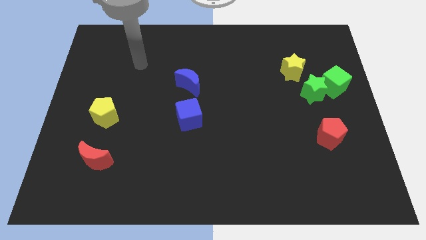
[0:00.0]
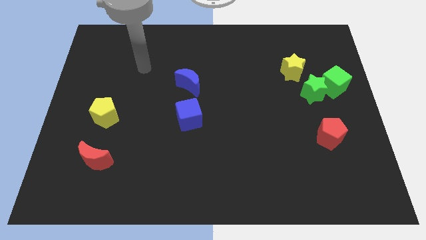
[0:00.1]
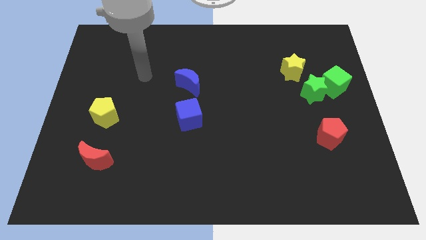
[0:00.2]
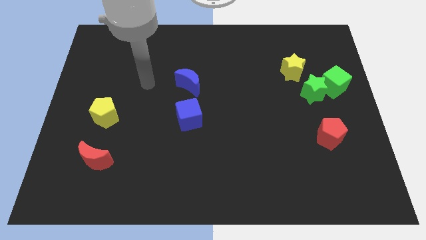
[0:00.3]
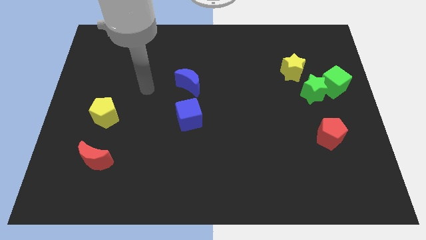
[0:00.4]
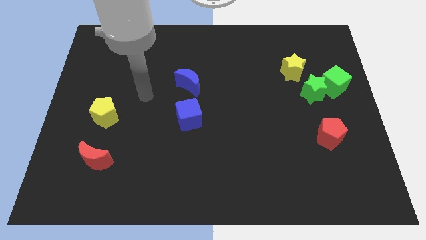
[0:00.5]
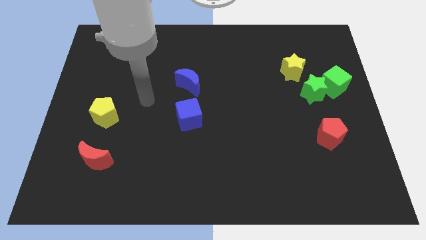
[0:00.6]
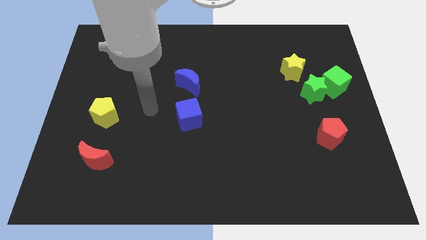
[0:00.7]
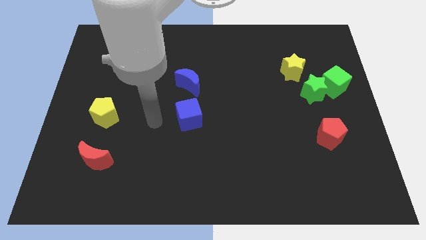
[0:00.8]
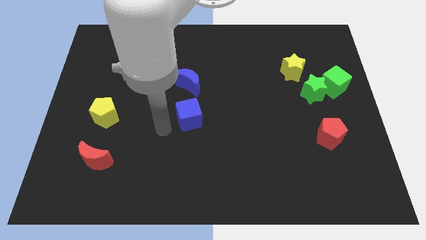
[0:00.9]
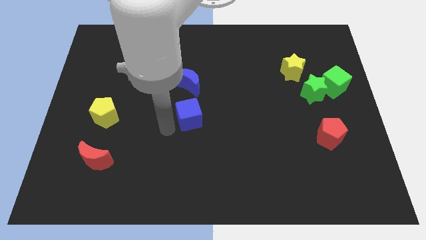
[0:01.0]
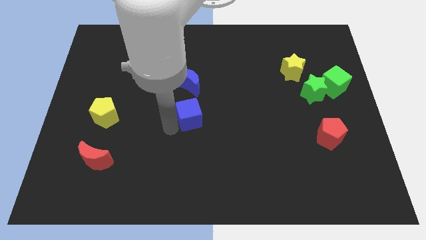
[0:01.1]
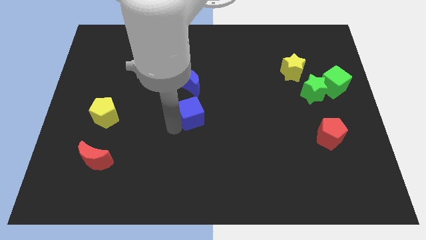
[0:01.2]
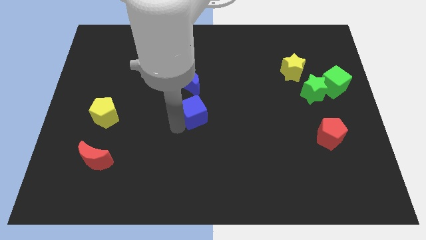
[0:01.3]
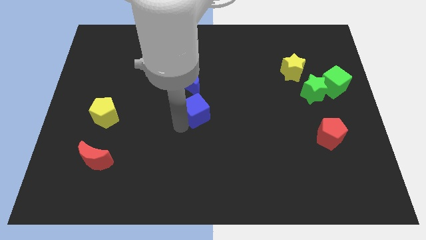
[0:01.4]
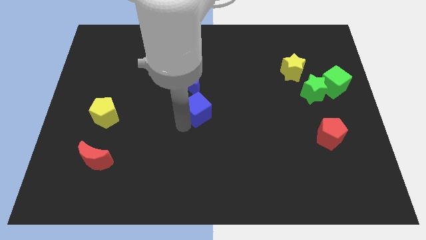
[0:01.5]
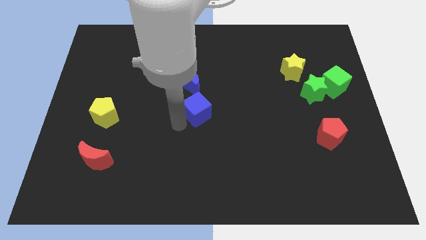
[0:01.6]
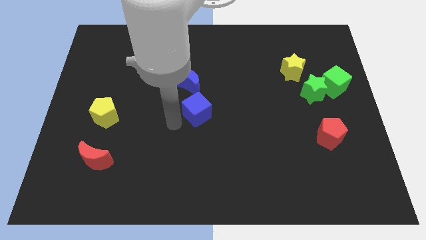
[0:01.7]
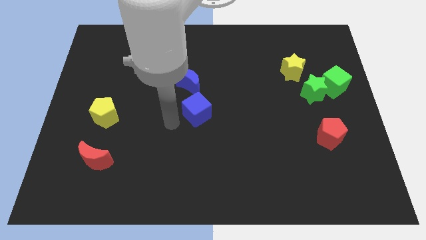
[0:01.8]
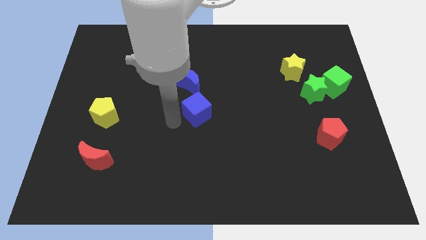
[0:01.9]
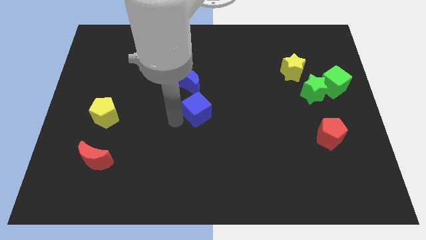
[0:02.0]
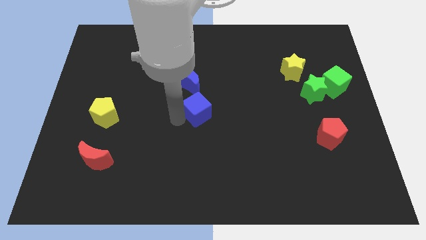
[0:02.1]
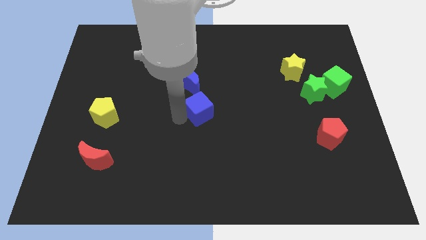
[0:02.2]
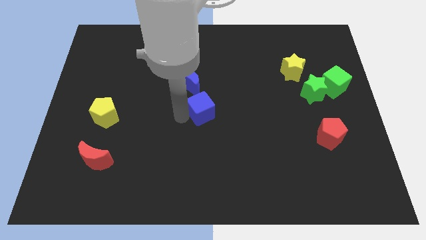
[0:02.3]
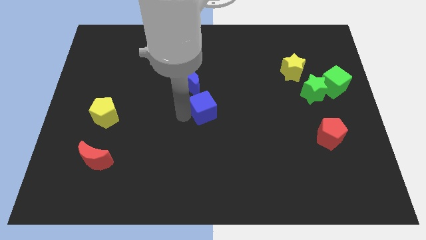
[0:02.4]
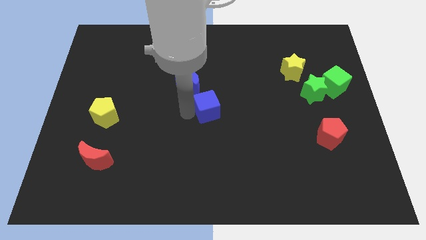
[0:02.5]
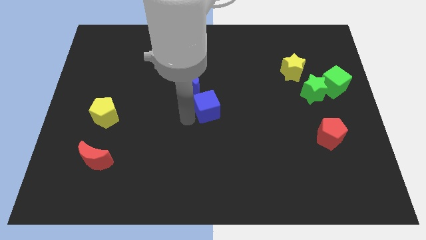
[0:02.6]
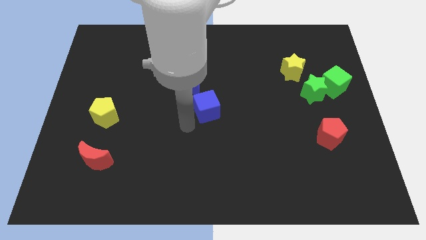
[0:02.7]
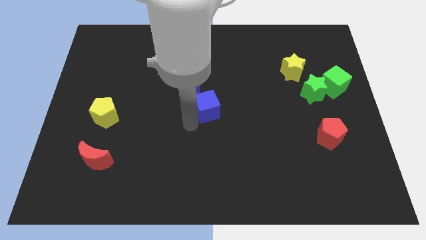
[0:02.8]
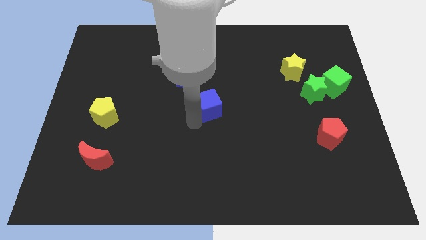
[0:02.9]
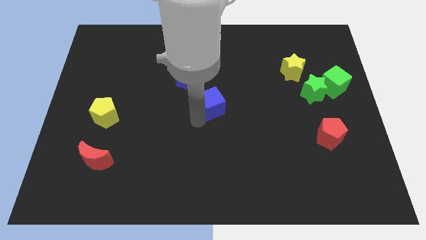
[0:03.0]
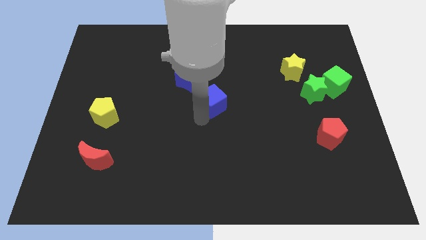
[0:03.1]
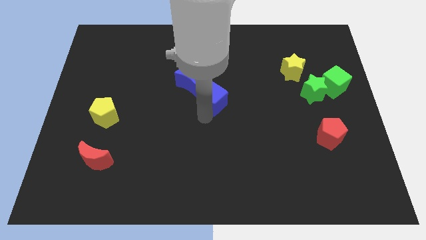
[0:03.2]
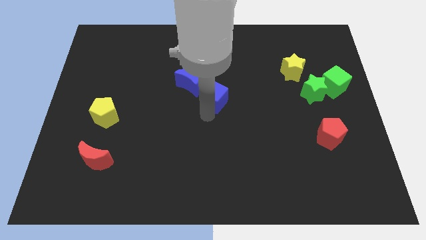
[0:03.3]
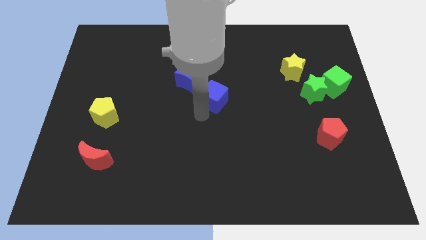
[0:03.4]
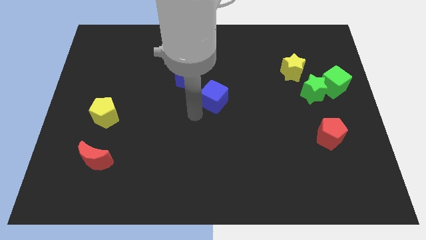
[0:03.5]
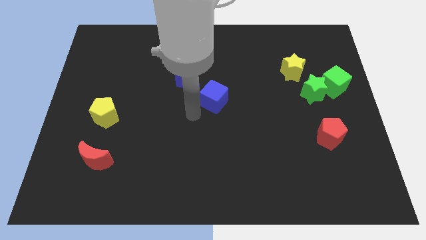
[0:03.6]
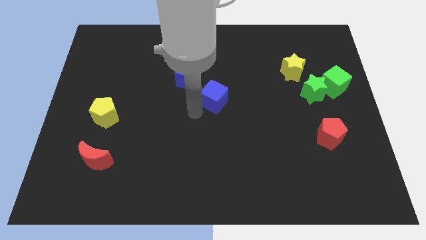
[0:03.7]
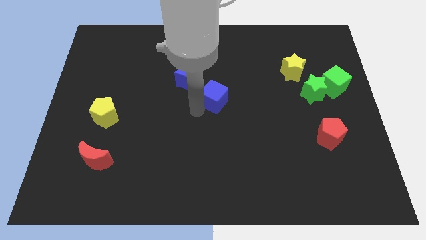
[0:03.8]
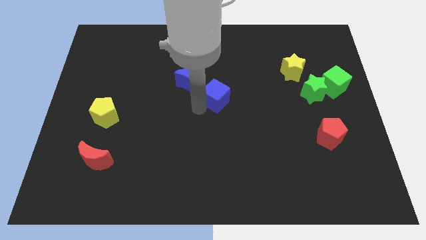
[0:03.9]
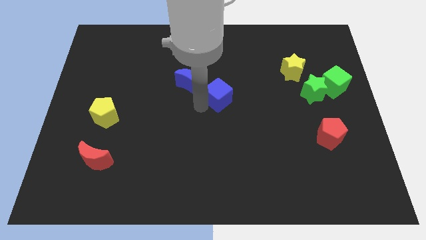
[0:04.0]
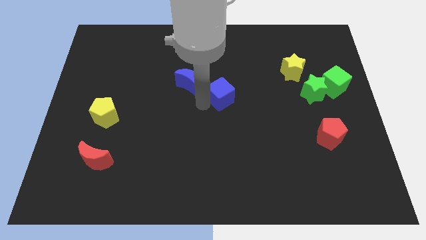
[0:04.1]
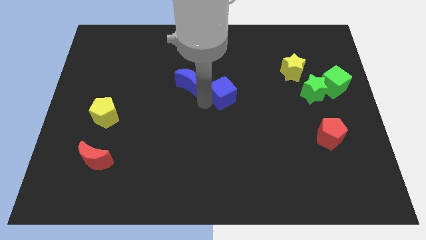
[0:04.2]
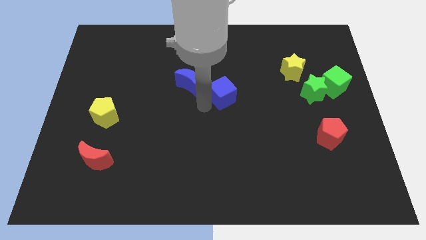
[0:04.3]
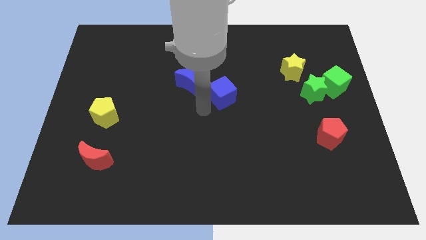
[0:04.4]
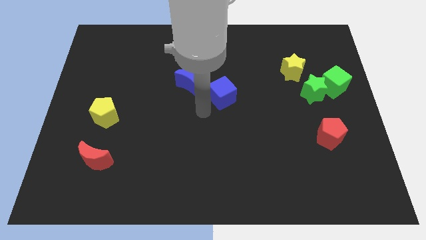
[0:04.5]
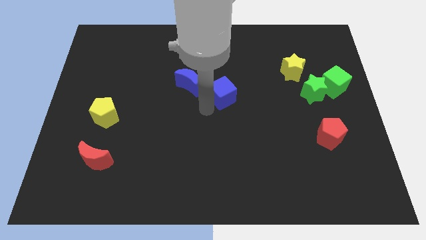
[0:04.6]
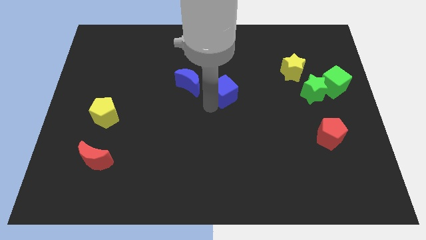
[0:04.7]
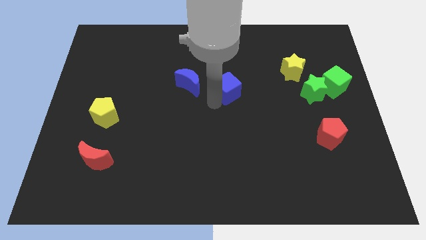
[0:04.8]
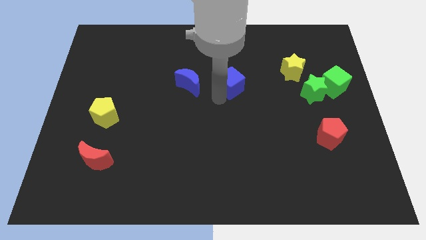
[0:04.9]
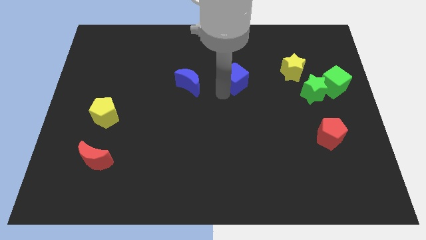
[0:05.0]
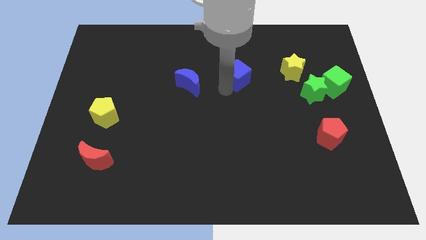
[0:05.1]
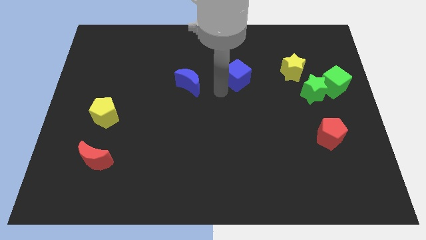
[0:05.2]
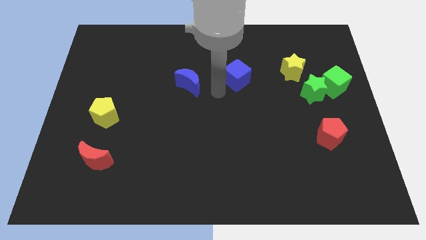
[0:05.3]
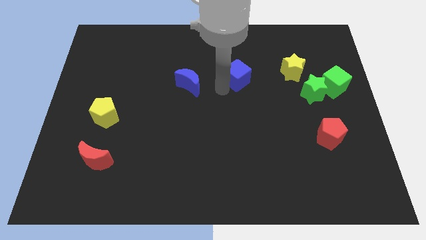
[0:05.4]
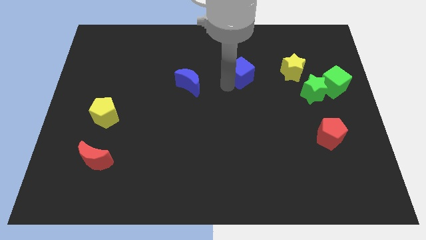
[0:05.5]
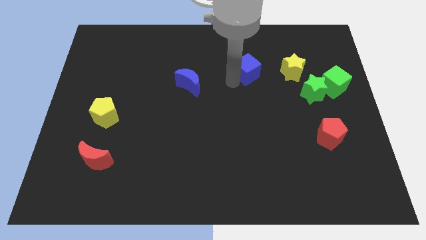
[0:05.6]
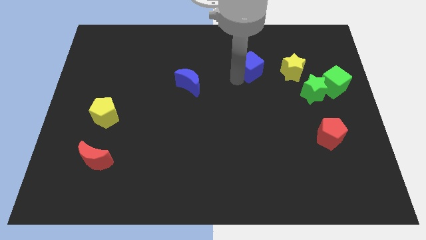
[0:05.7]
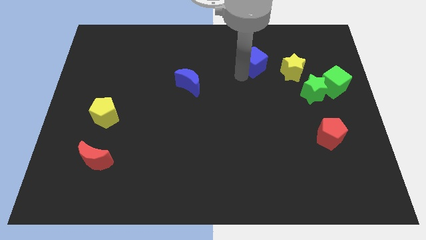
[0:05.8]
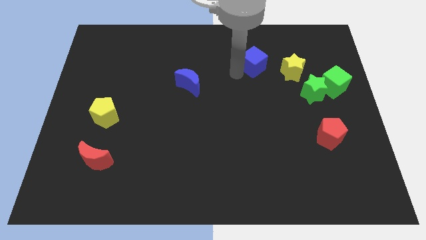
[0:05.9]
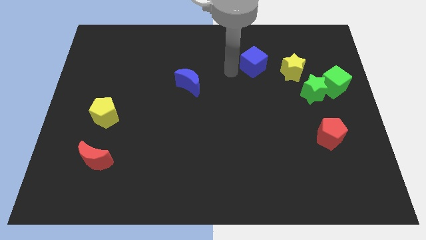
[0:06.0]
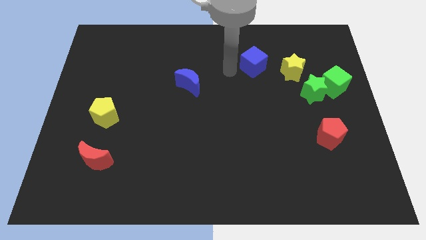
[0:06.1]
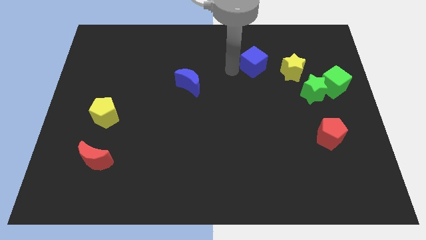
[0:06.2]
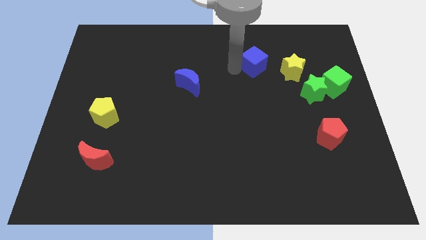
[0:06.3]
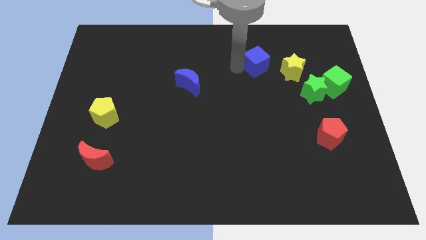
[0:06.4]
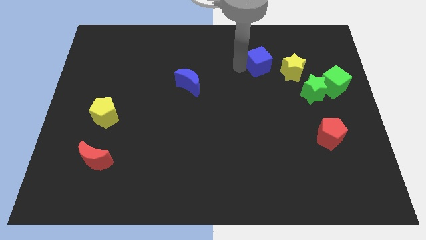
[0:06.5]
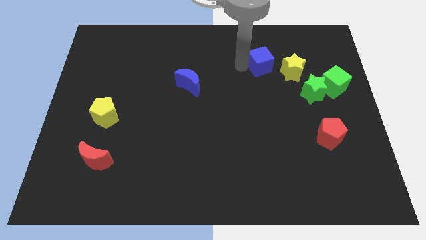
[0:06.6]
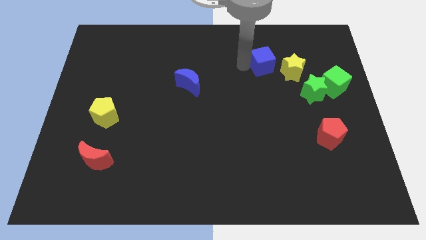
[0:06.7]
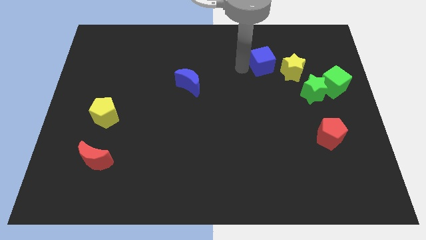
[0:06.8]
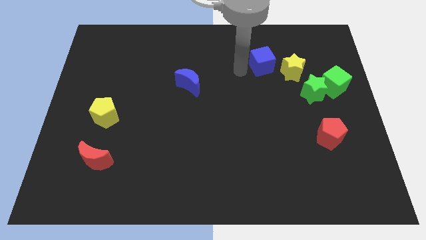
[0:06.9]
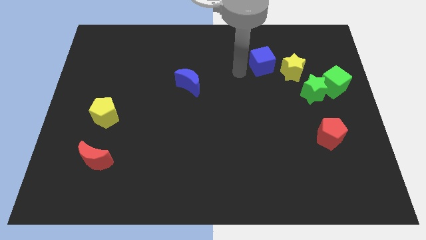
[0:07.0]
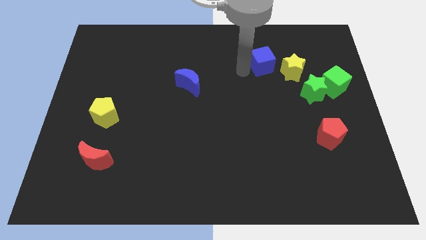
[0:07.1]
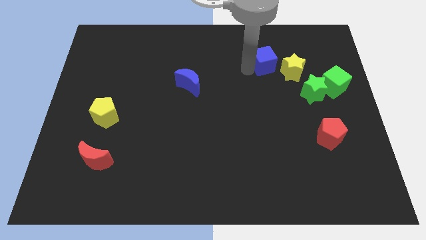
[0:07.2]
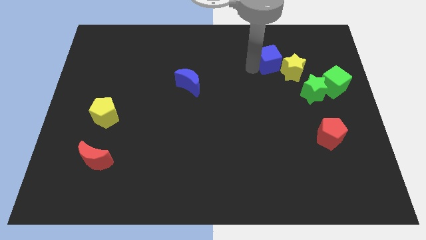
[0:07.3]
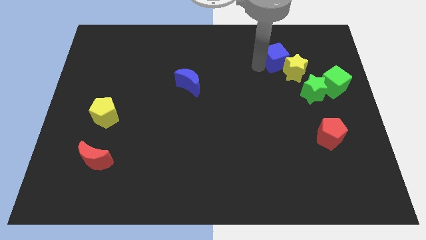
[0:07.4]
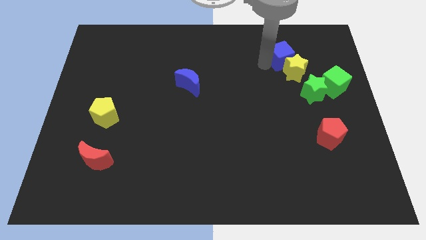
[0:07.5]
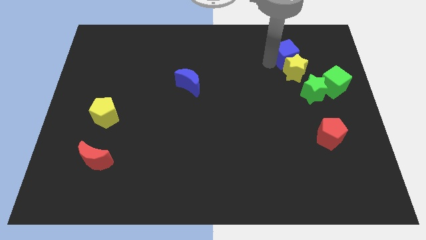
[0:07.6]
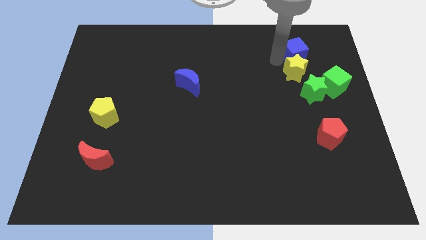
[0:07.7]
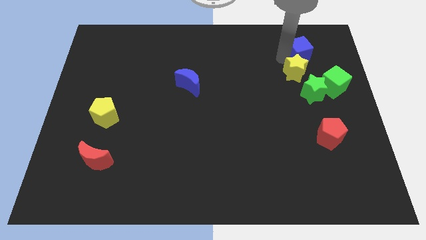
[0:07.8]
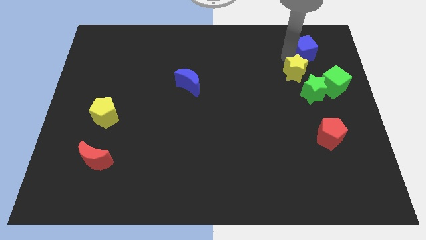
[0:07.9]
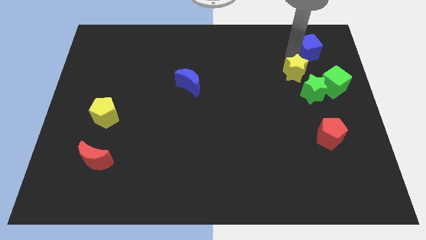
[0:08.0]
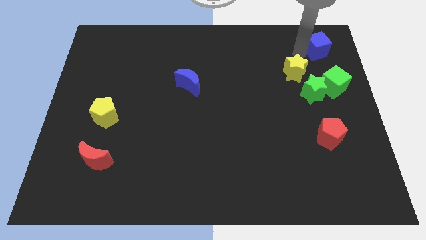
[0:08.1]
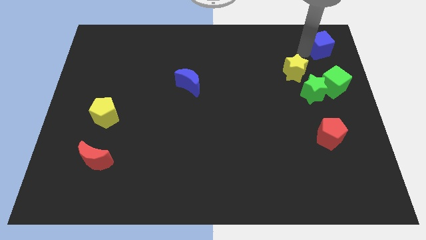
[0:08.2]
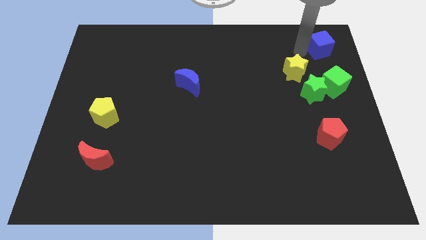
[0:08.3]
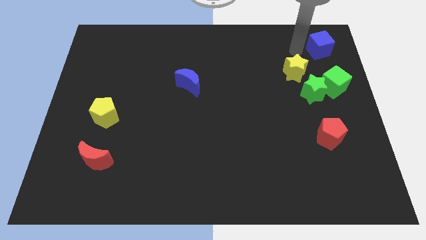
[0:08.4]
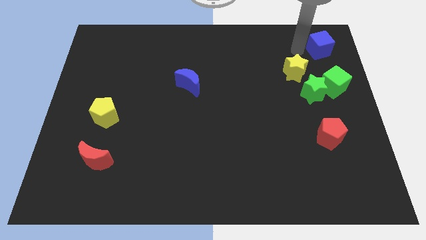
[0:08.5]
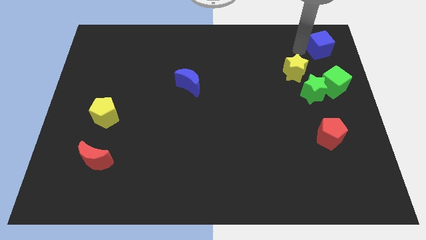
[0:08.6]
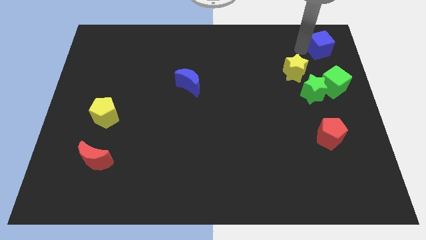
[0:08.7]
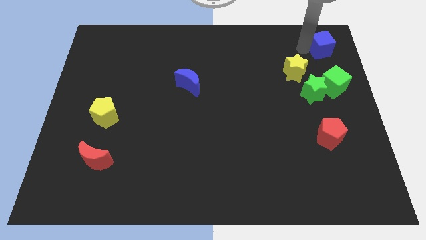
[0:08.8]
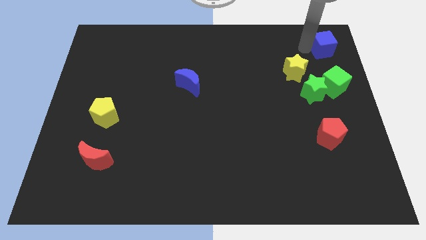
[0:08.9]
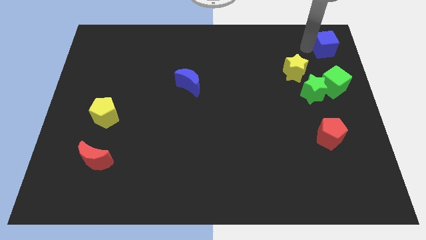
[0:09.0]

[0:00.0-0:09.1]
move the blue cube to the upper right corner
